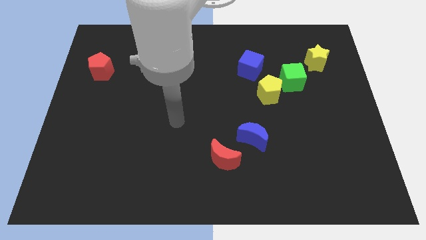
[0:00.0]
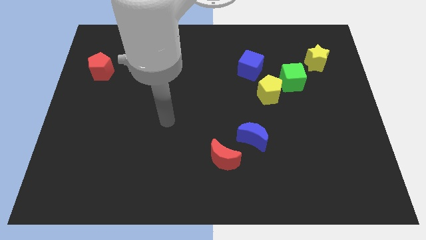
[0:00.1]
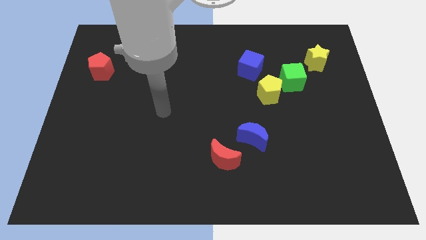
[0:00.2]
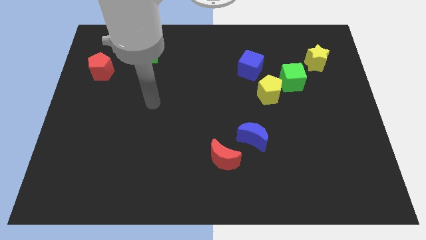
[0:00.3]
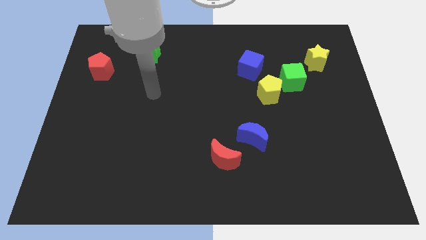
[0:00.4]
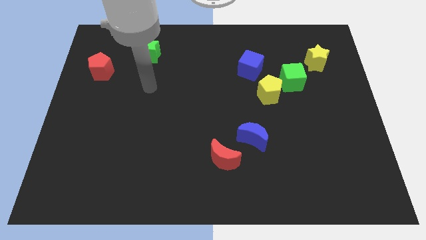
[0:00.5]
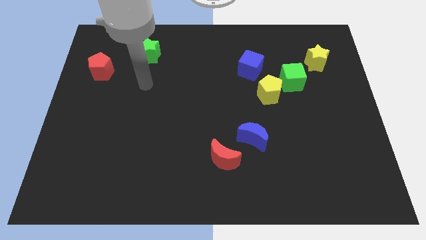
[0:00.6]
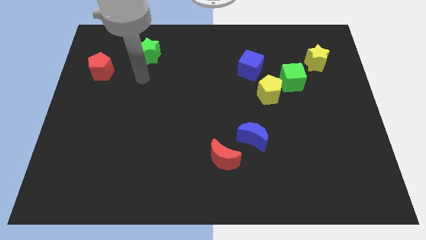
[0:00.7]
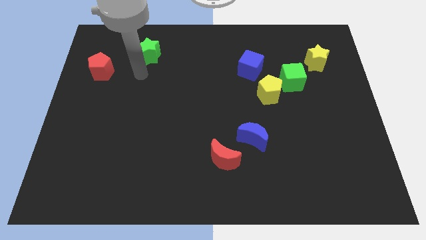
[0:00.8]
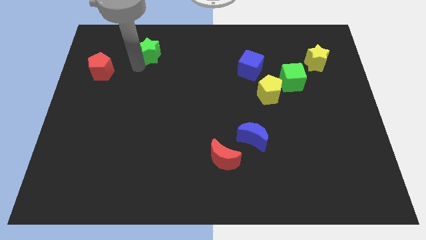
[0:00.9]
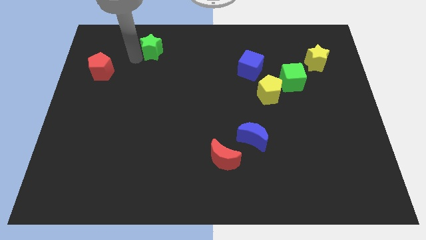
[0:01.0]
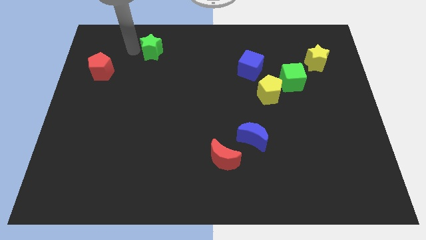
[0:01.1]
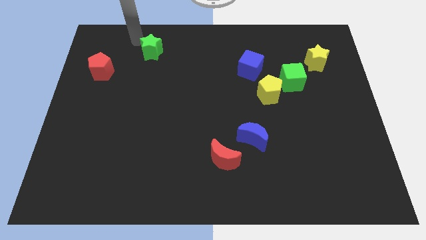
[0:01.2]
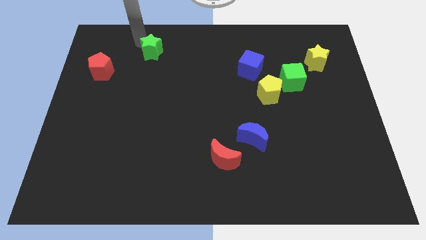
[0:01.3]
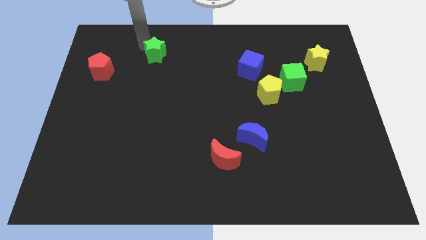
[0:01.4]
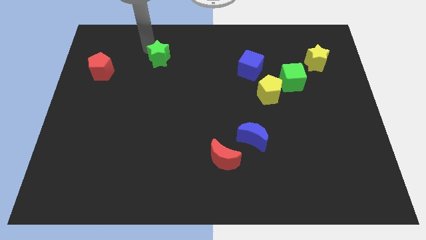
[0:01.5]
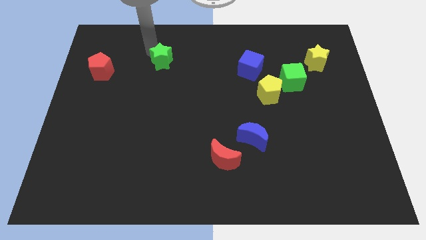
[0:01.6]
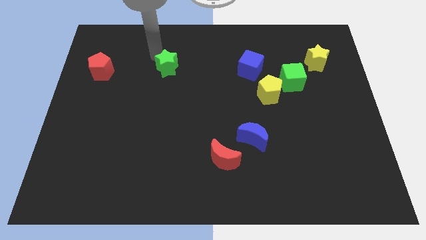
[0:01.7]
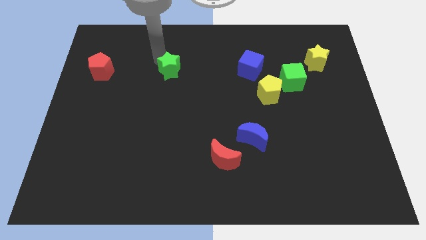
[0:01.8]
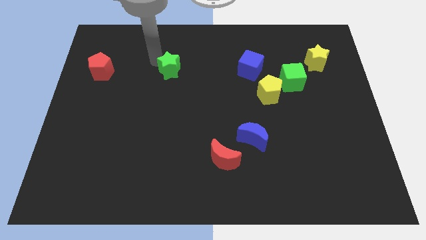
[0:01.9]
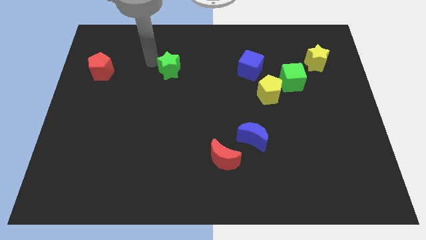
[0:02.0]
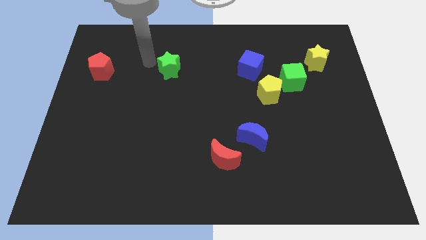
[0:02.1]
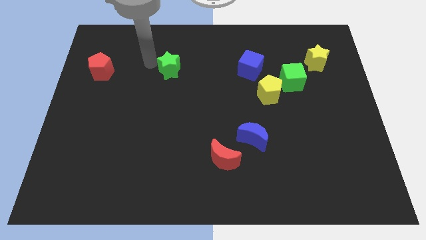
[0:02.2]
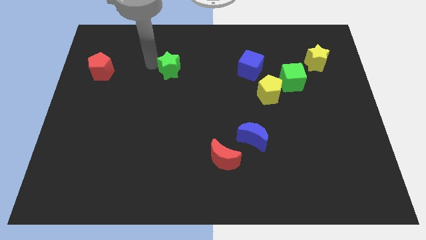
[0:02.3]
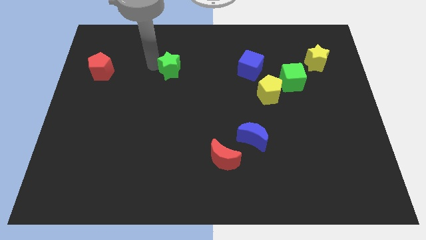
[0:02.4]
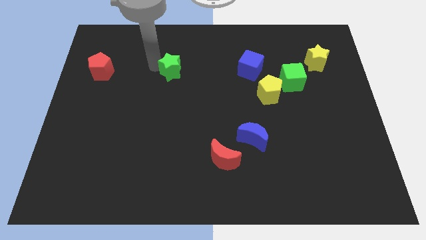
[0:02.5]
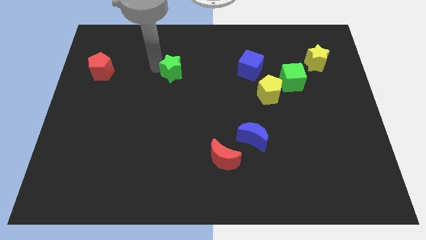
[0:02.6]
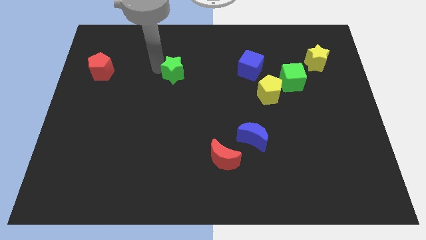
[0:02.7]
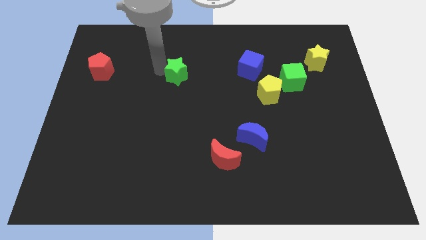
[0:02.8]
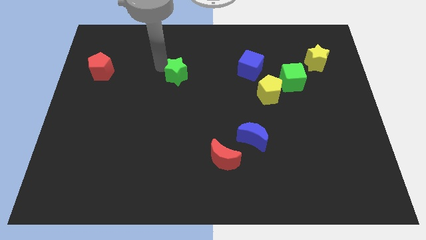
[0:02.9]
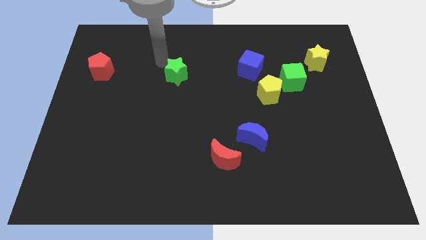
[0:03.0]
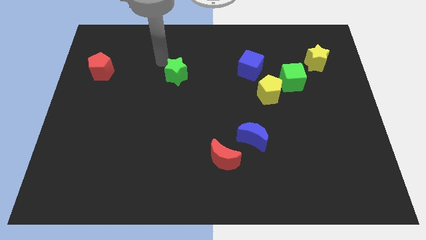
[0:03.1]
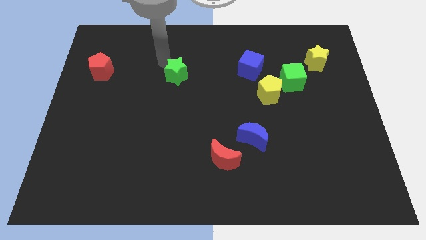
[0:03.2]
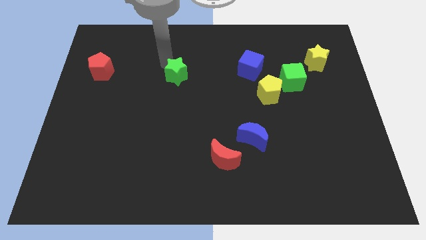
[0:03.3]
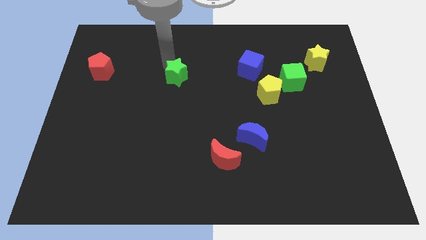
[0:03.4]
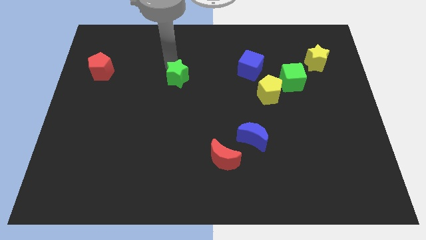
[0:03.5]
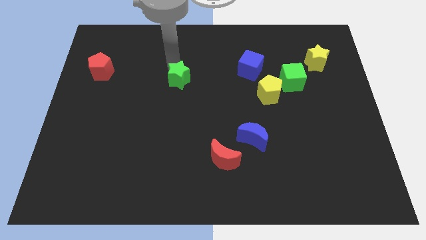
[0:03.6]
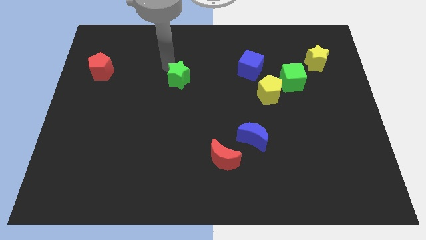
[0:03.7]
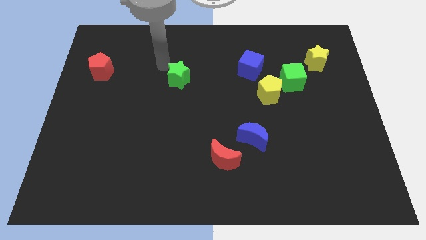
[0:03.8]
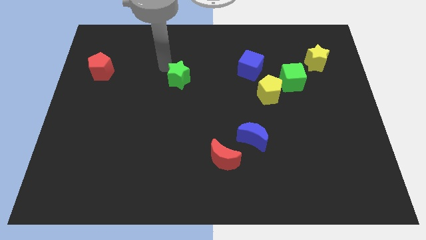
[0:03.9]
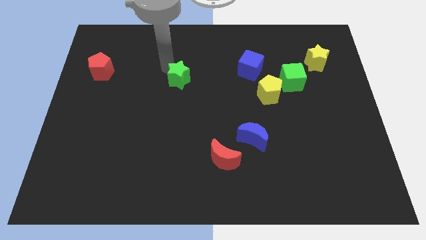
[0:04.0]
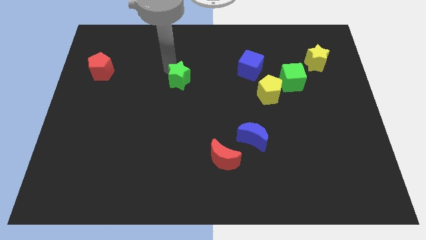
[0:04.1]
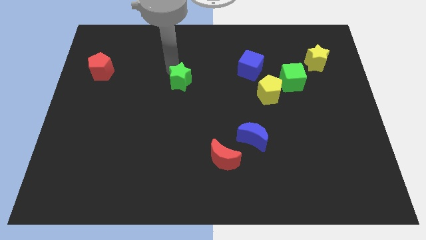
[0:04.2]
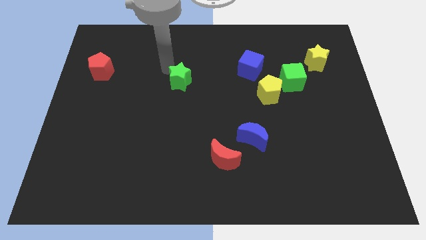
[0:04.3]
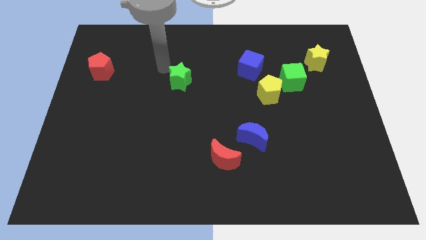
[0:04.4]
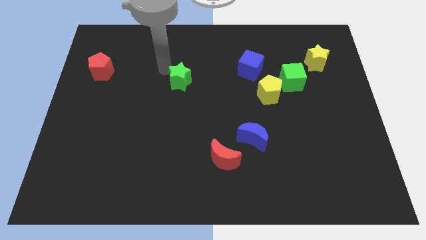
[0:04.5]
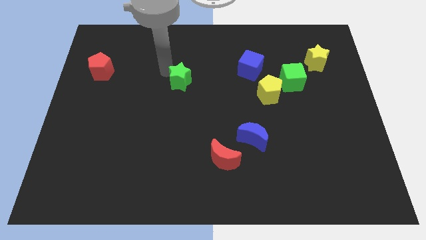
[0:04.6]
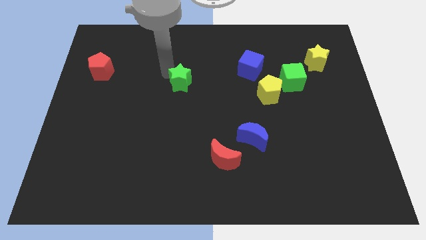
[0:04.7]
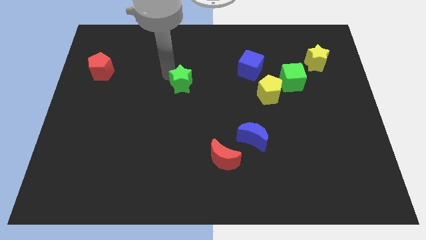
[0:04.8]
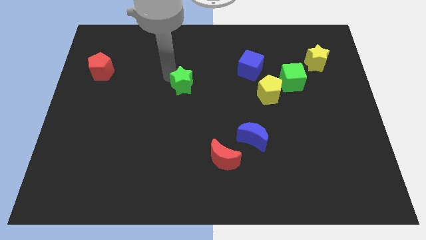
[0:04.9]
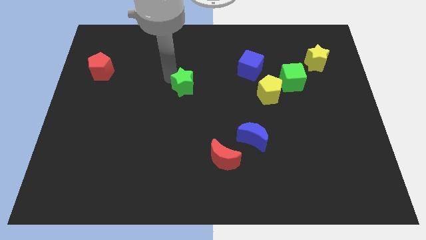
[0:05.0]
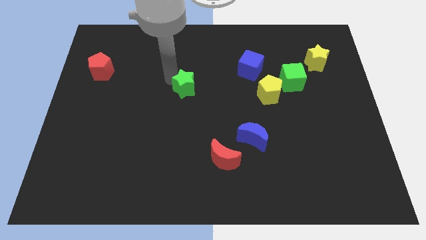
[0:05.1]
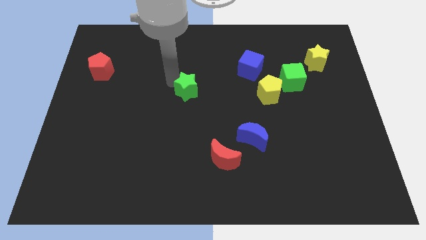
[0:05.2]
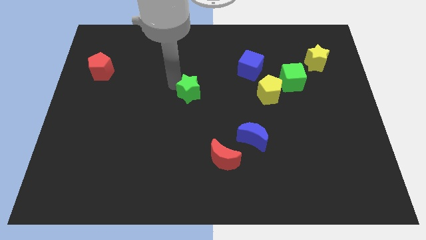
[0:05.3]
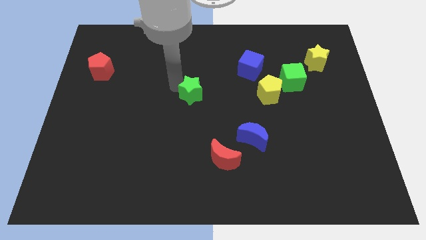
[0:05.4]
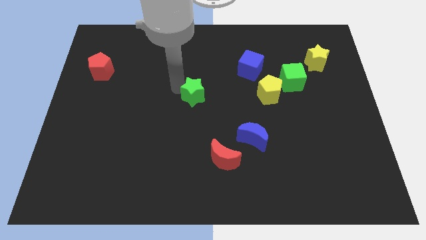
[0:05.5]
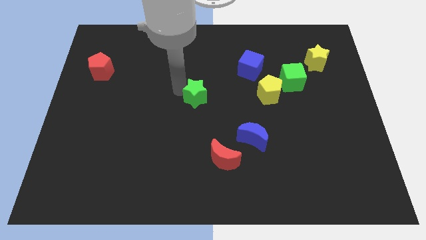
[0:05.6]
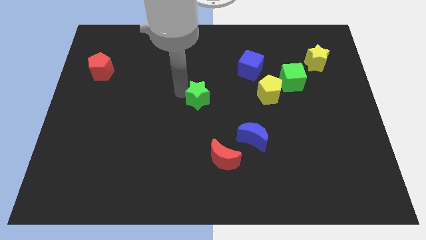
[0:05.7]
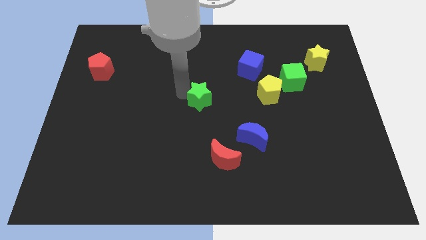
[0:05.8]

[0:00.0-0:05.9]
push the green star diagonally down and to the right

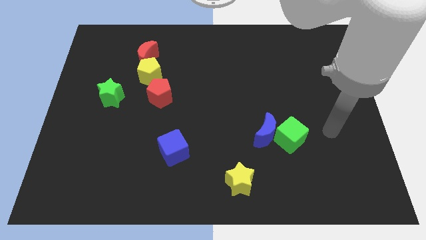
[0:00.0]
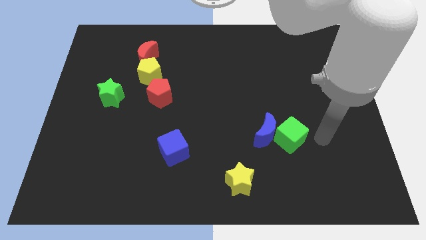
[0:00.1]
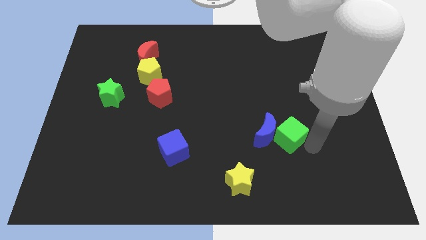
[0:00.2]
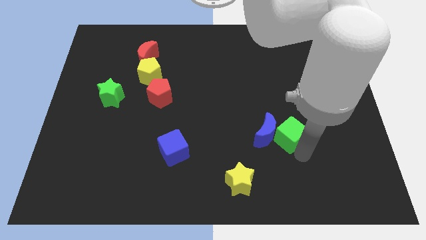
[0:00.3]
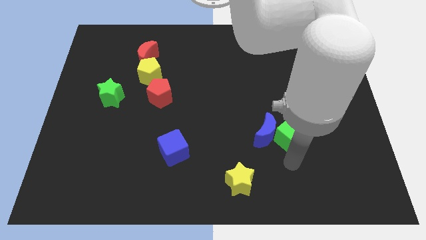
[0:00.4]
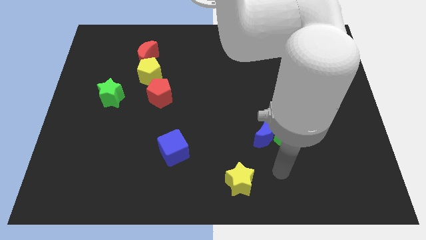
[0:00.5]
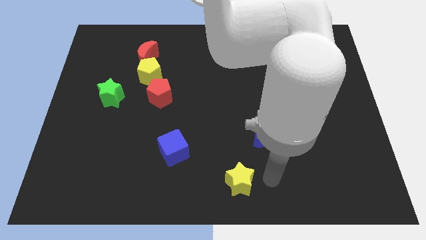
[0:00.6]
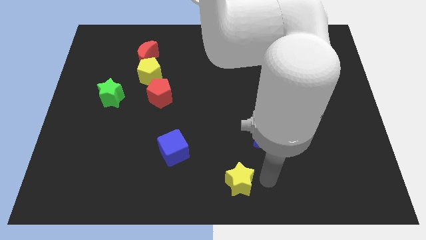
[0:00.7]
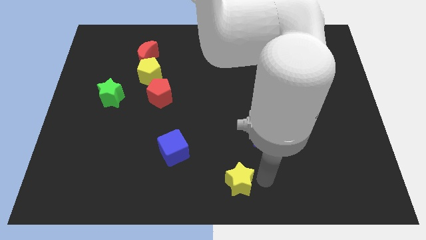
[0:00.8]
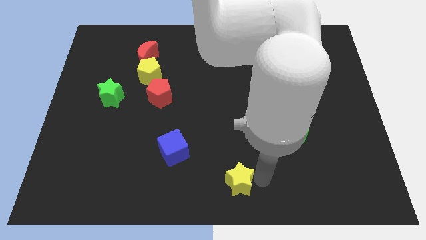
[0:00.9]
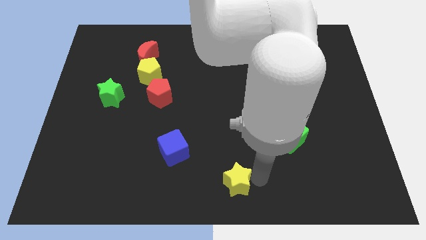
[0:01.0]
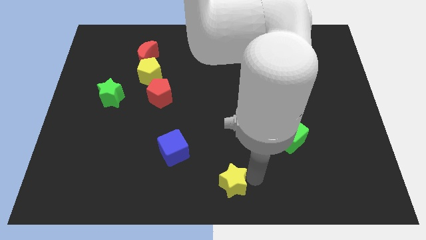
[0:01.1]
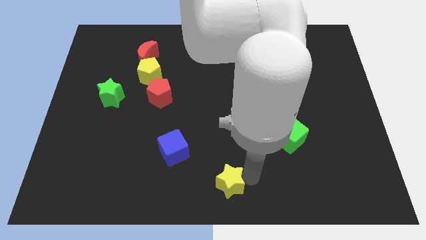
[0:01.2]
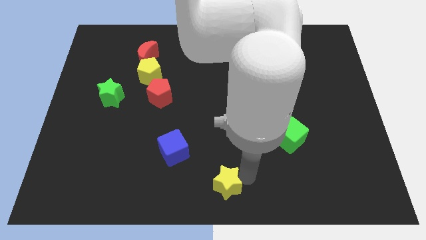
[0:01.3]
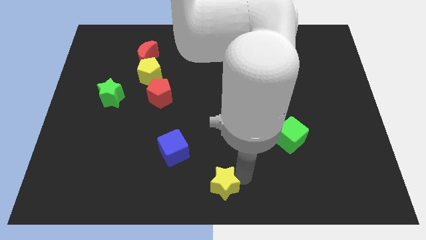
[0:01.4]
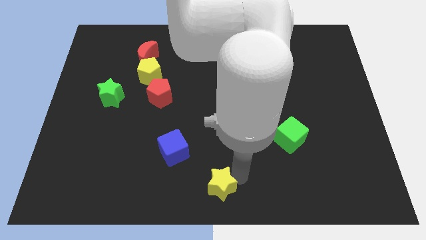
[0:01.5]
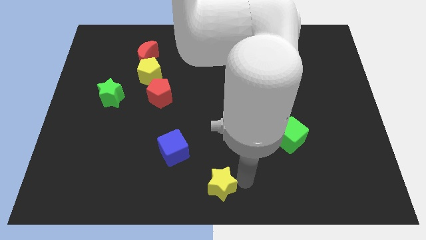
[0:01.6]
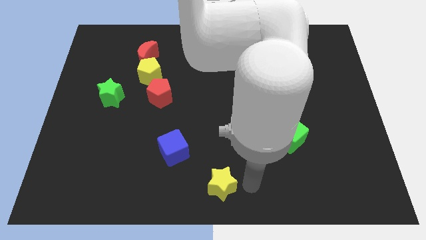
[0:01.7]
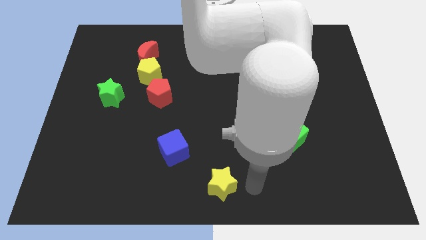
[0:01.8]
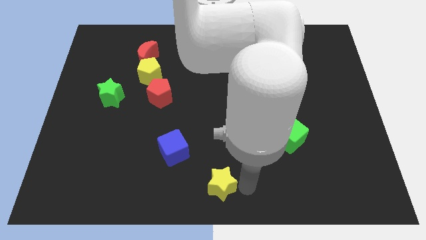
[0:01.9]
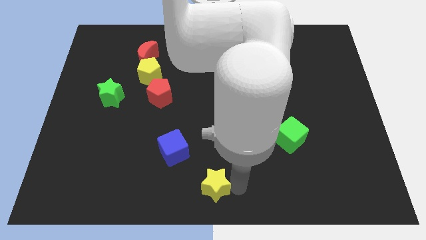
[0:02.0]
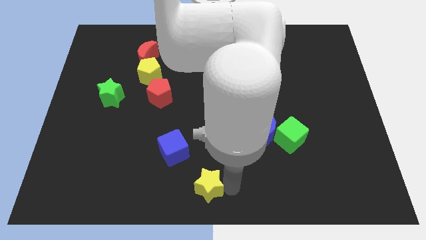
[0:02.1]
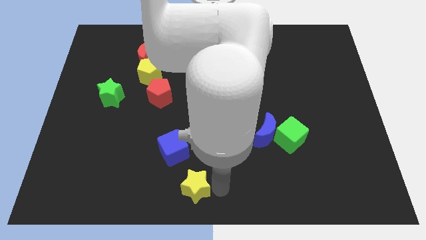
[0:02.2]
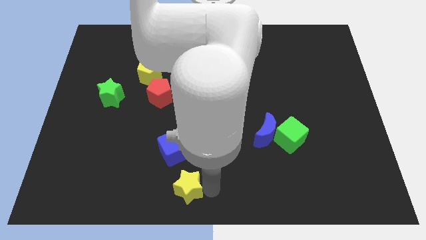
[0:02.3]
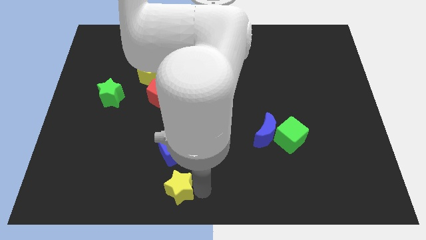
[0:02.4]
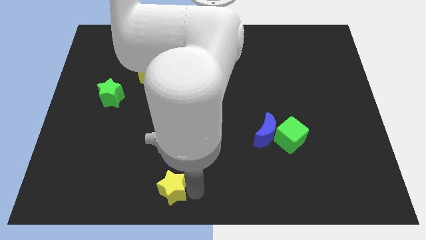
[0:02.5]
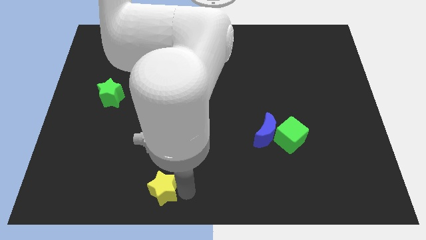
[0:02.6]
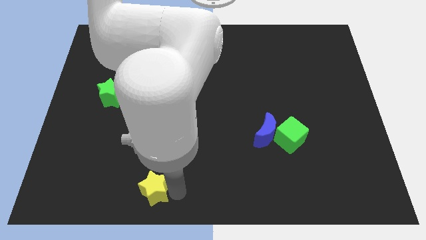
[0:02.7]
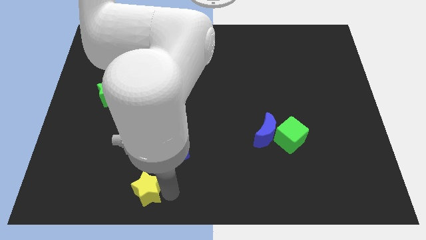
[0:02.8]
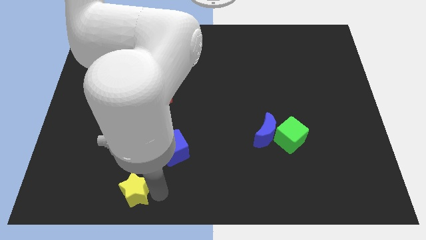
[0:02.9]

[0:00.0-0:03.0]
slide the yellow star left
